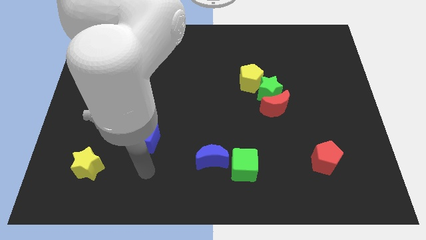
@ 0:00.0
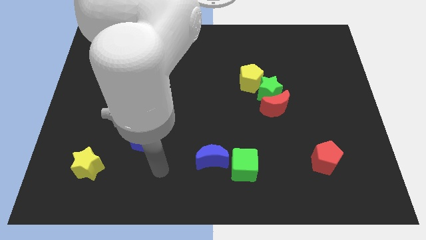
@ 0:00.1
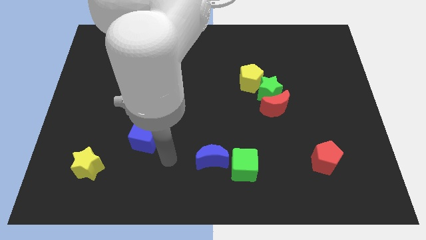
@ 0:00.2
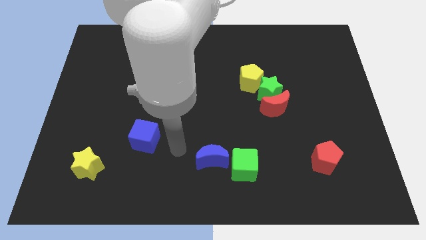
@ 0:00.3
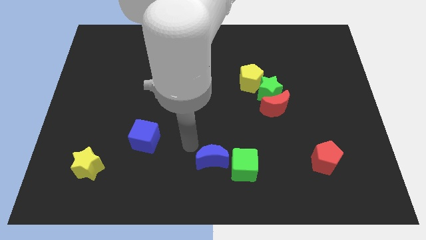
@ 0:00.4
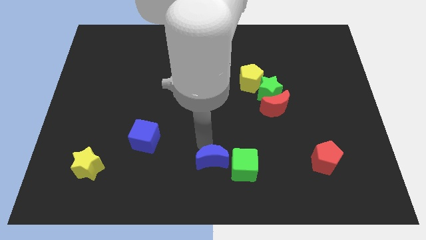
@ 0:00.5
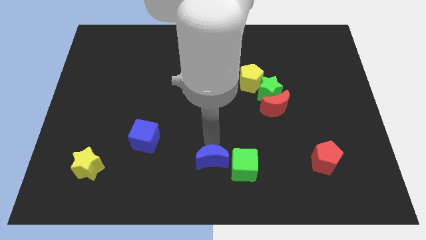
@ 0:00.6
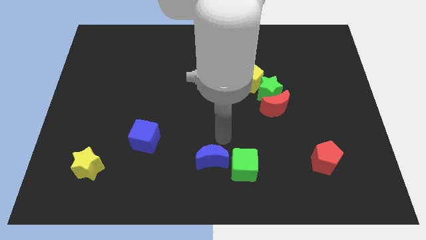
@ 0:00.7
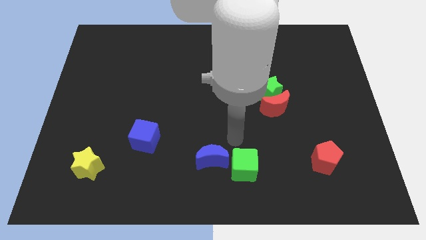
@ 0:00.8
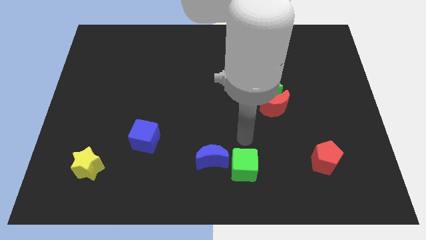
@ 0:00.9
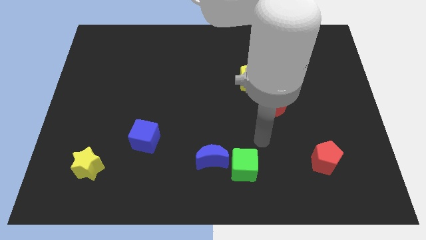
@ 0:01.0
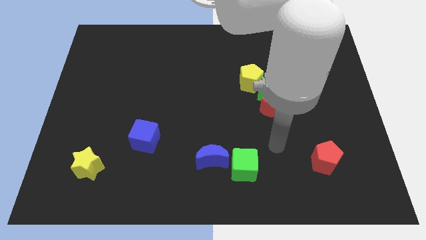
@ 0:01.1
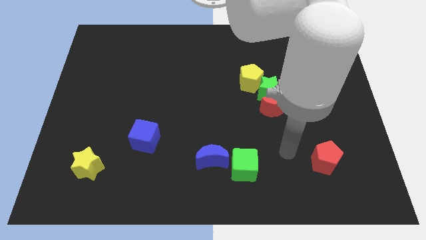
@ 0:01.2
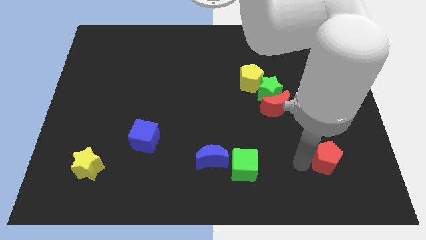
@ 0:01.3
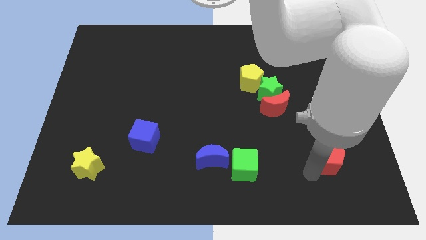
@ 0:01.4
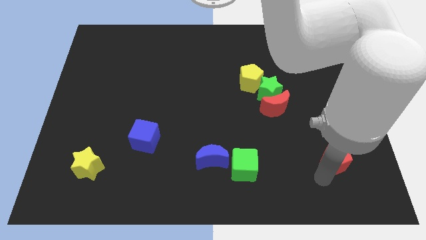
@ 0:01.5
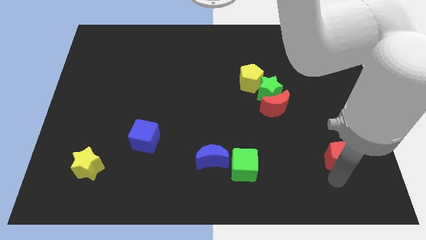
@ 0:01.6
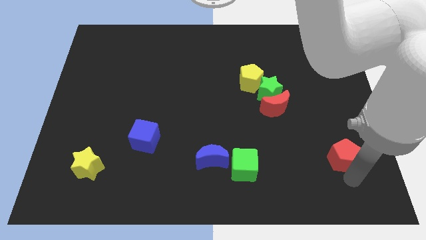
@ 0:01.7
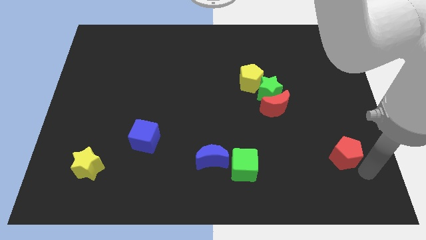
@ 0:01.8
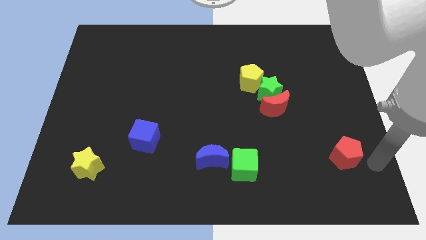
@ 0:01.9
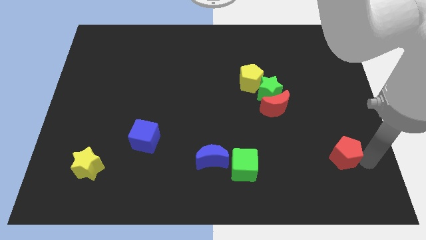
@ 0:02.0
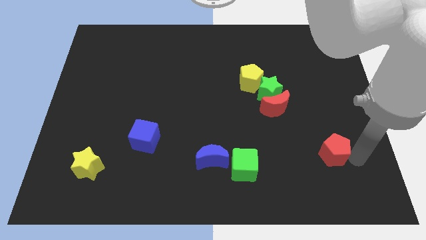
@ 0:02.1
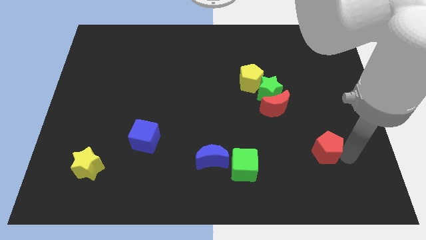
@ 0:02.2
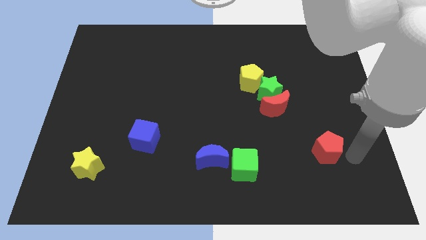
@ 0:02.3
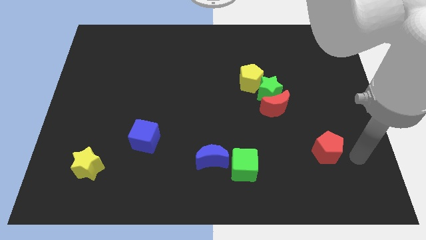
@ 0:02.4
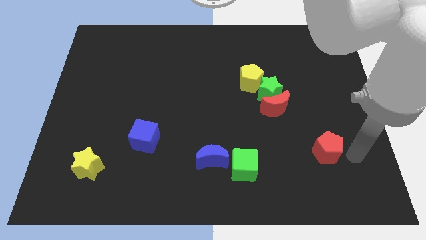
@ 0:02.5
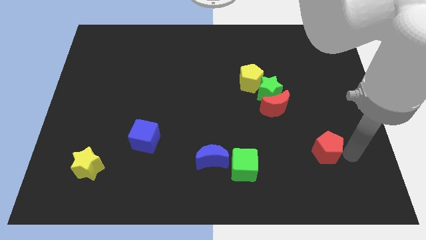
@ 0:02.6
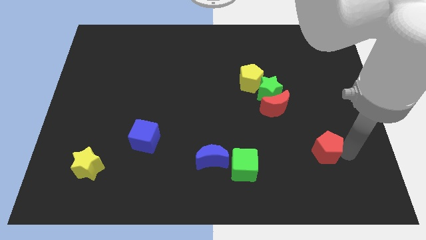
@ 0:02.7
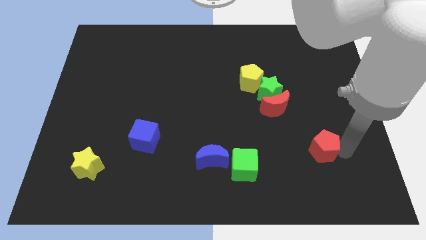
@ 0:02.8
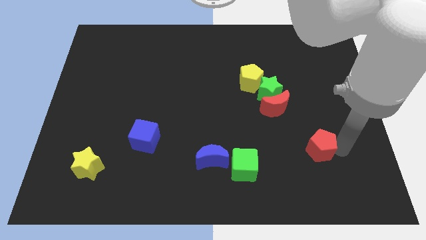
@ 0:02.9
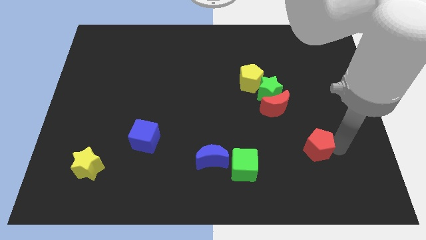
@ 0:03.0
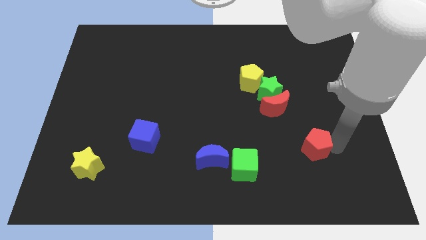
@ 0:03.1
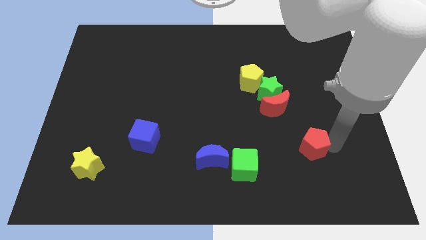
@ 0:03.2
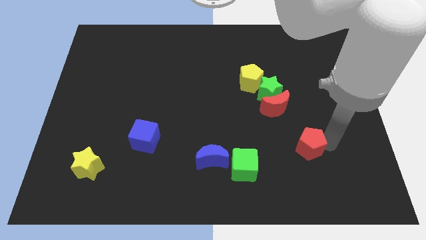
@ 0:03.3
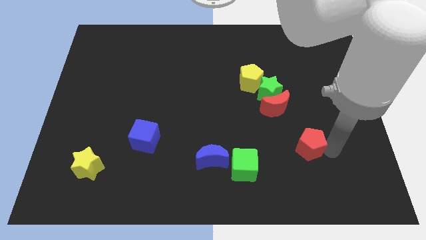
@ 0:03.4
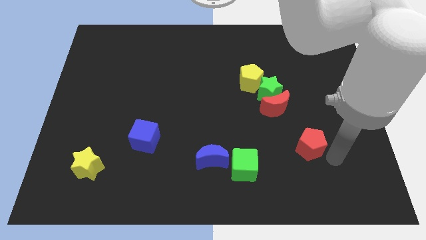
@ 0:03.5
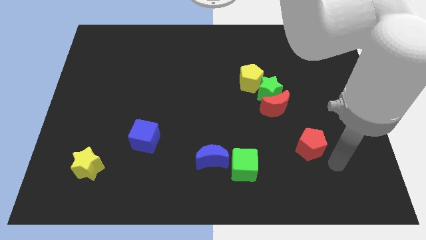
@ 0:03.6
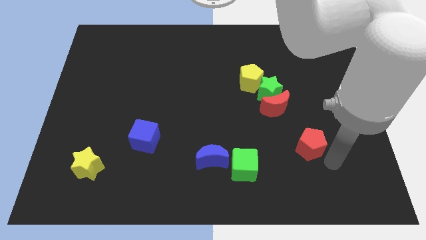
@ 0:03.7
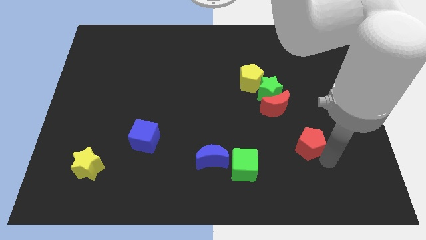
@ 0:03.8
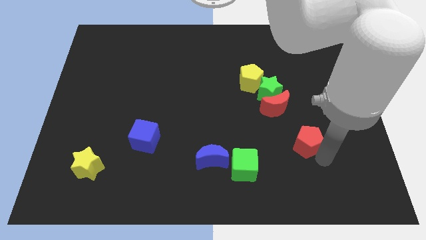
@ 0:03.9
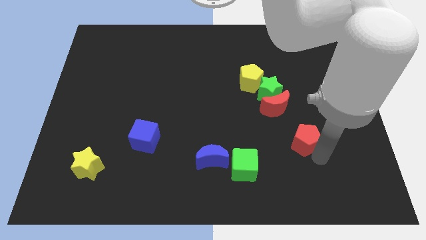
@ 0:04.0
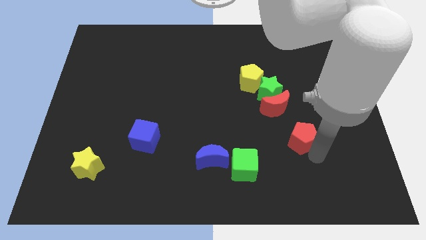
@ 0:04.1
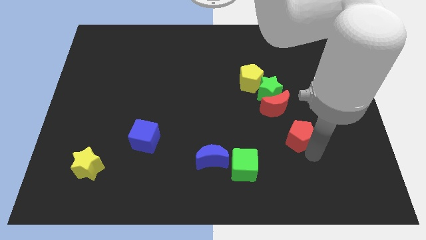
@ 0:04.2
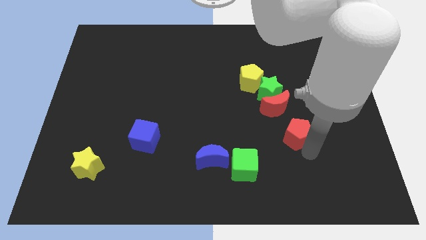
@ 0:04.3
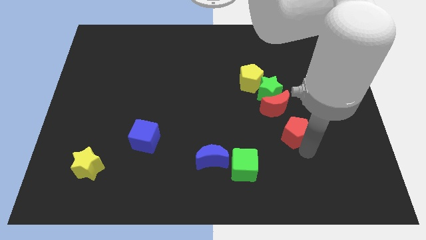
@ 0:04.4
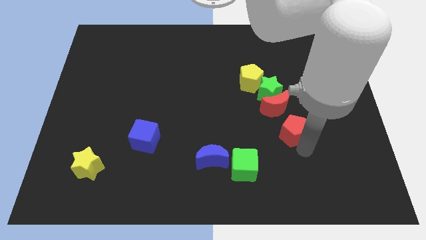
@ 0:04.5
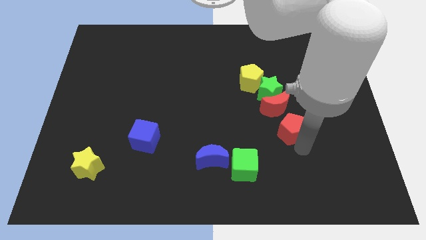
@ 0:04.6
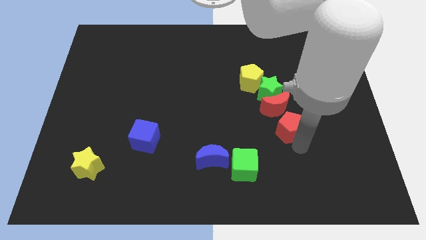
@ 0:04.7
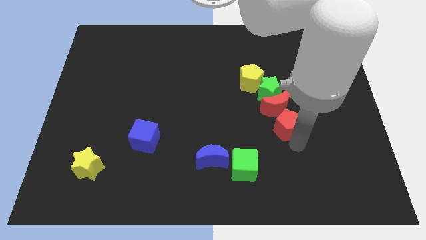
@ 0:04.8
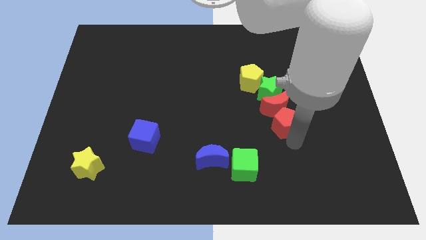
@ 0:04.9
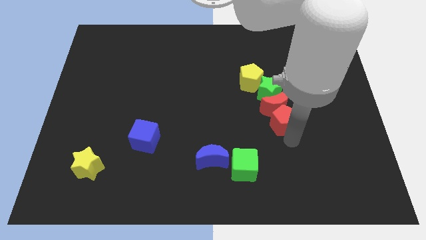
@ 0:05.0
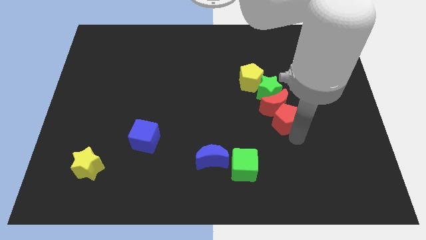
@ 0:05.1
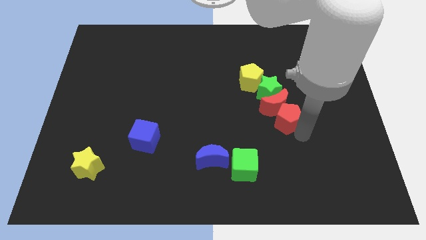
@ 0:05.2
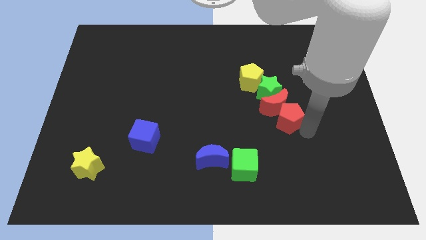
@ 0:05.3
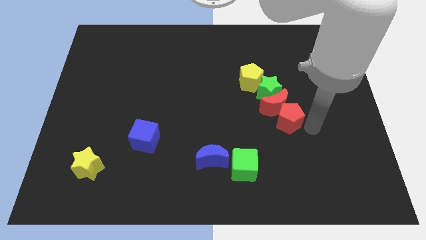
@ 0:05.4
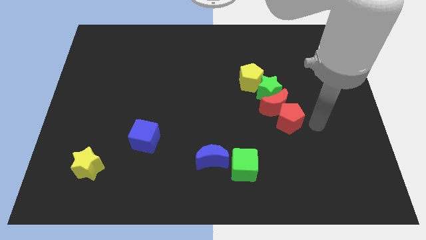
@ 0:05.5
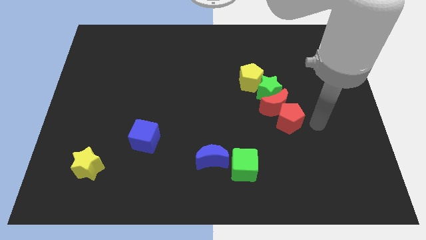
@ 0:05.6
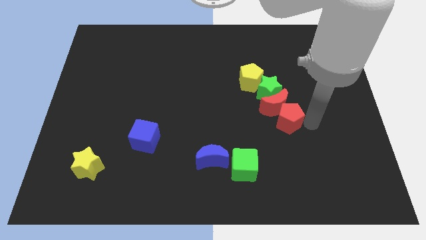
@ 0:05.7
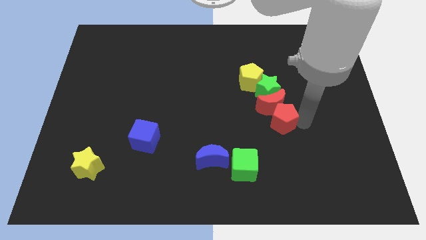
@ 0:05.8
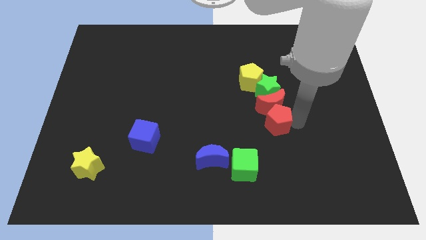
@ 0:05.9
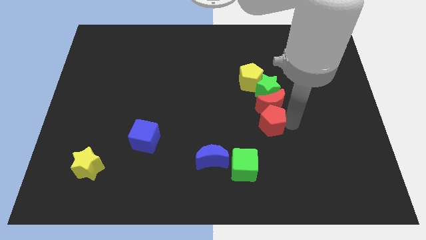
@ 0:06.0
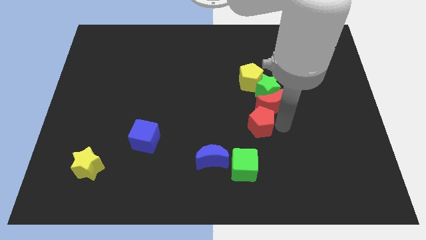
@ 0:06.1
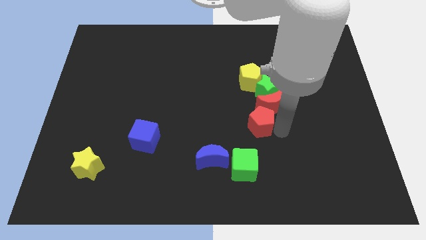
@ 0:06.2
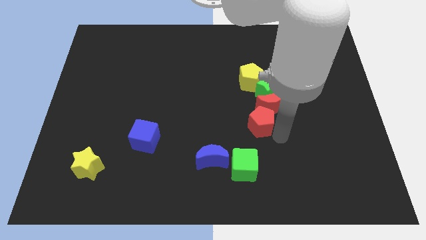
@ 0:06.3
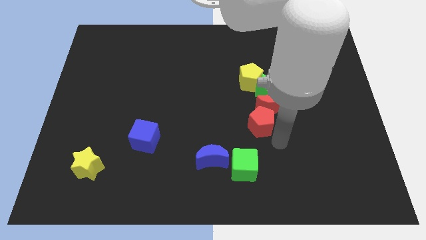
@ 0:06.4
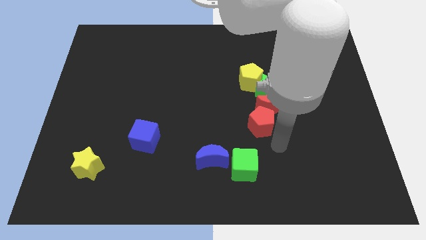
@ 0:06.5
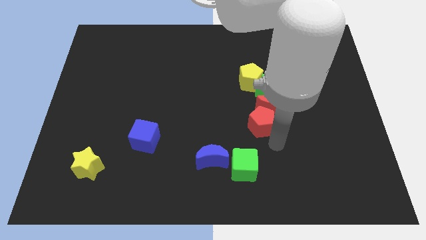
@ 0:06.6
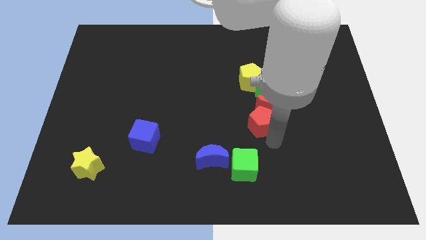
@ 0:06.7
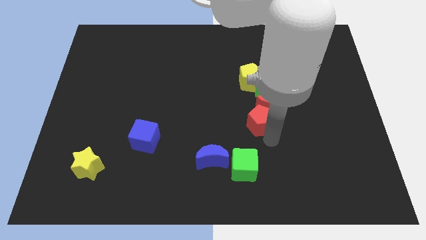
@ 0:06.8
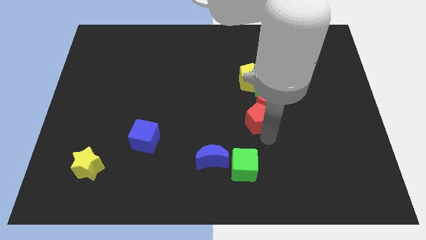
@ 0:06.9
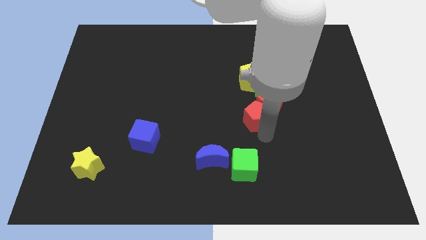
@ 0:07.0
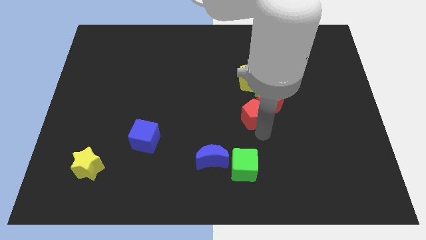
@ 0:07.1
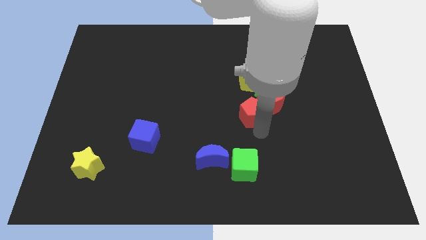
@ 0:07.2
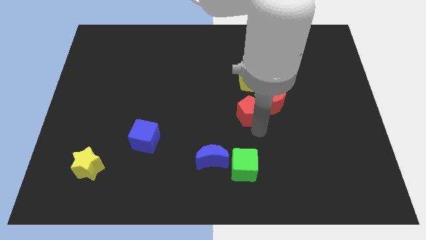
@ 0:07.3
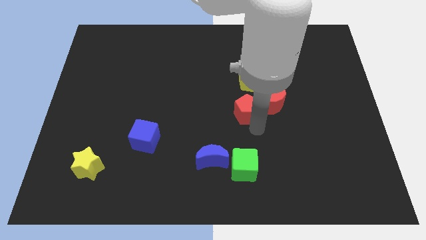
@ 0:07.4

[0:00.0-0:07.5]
slide the red pentagon up and left

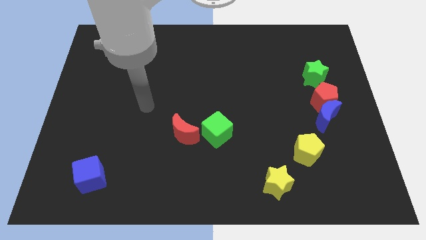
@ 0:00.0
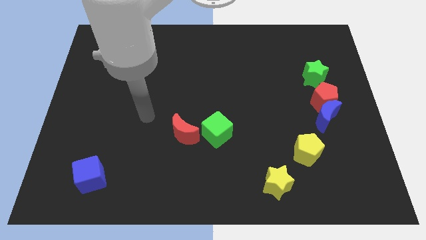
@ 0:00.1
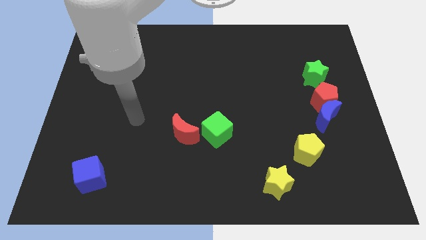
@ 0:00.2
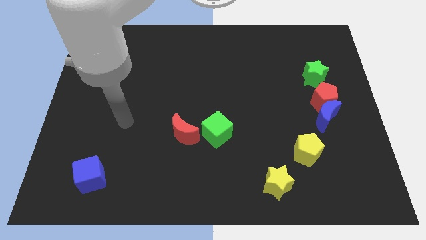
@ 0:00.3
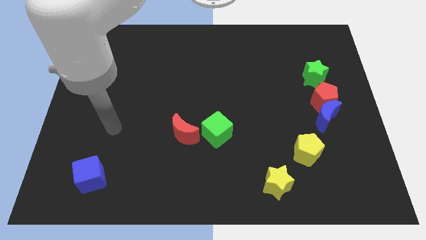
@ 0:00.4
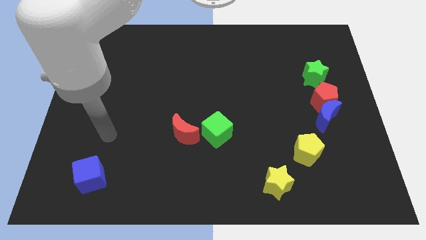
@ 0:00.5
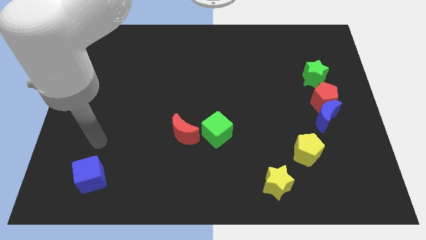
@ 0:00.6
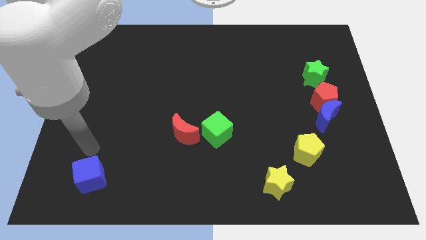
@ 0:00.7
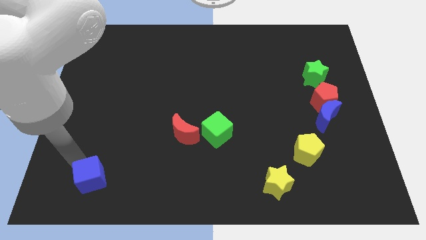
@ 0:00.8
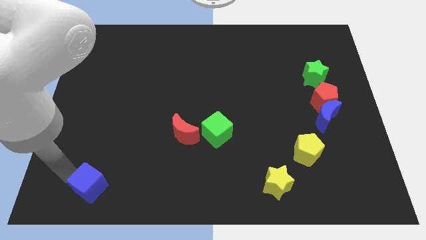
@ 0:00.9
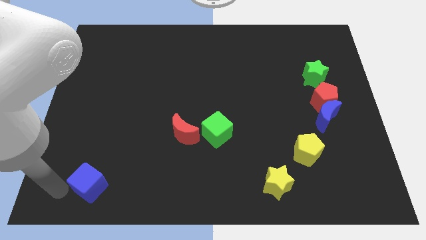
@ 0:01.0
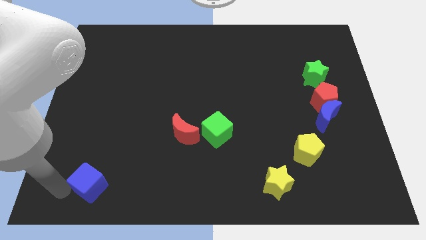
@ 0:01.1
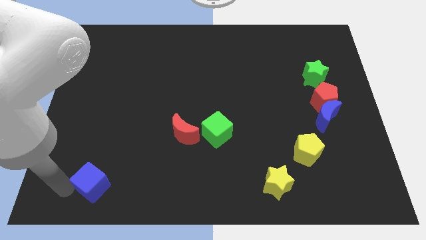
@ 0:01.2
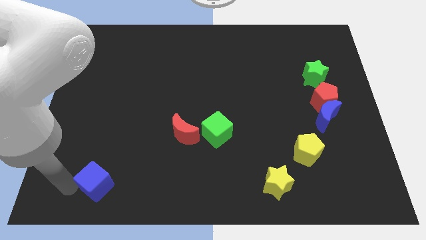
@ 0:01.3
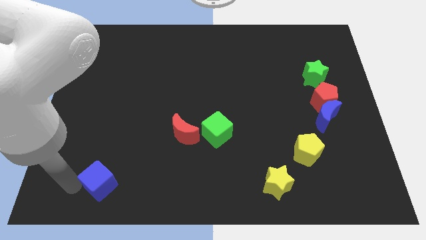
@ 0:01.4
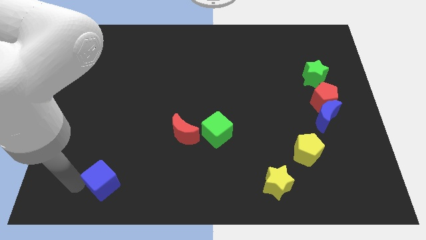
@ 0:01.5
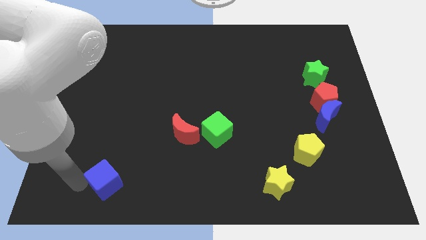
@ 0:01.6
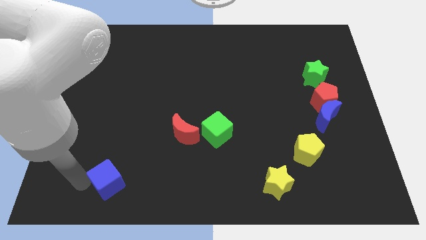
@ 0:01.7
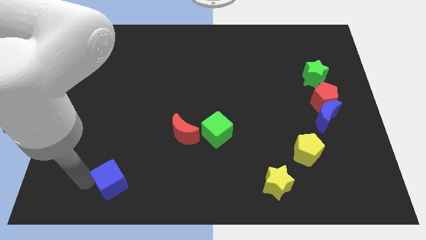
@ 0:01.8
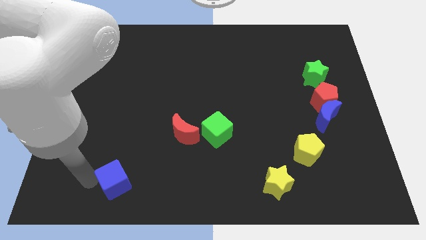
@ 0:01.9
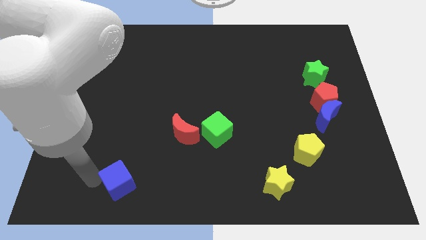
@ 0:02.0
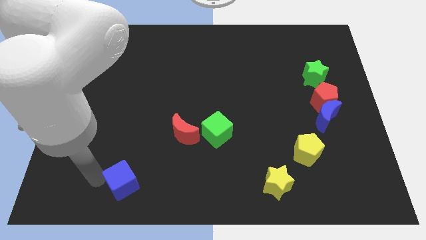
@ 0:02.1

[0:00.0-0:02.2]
slightly slide the blue cube to the right
